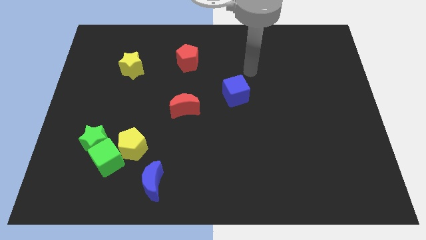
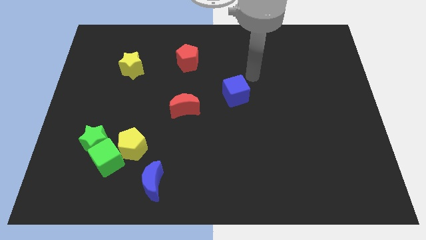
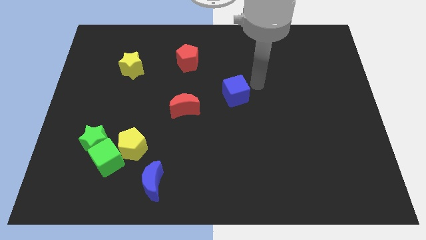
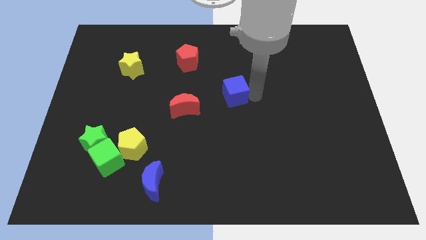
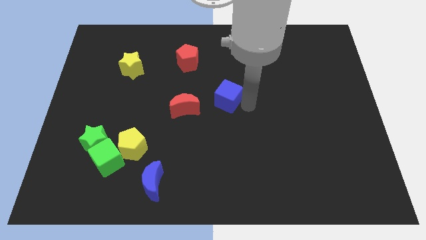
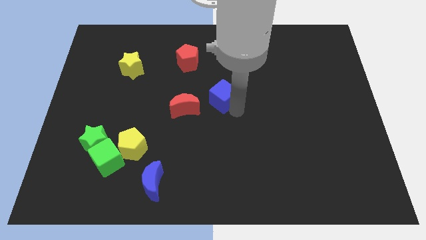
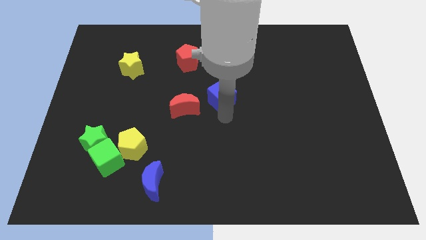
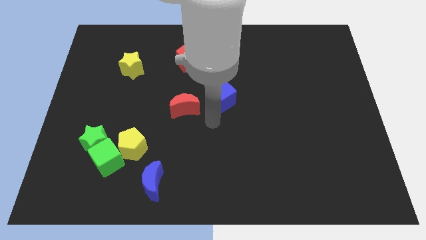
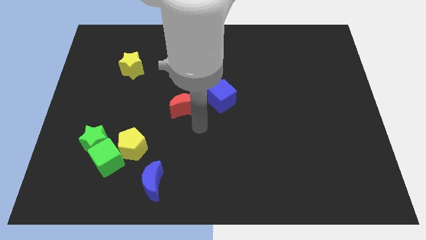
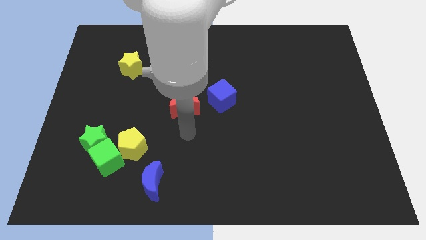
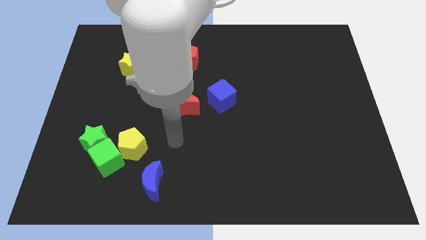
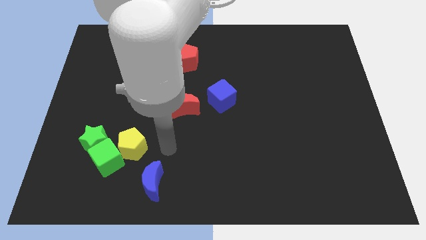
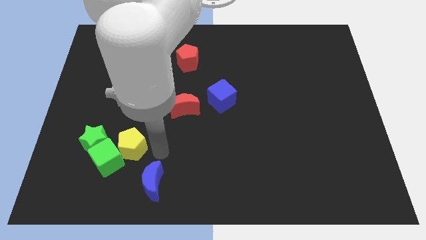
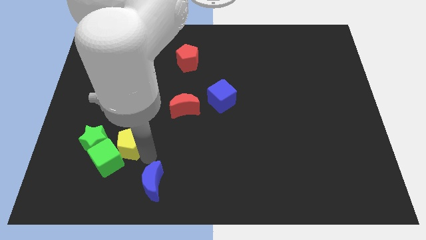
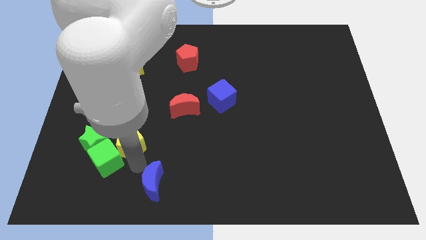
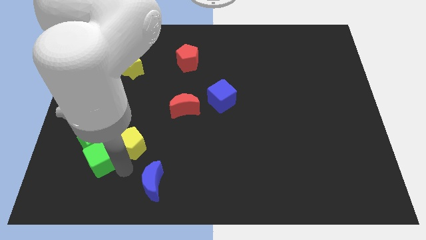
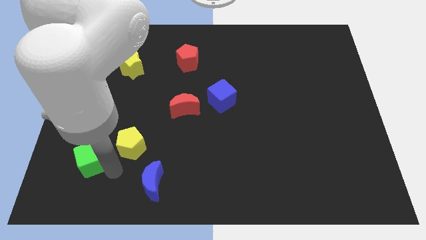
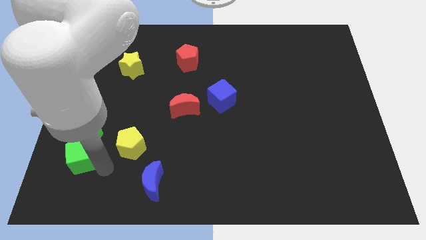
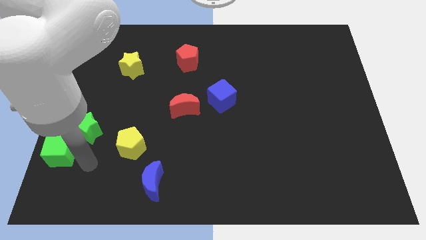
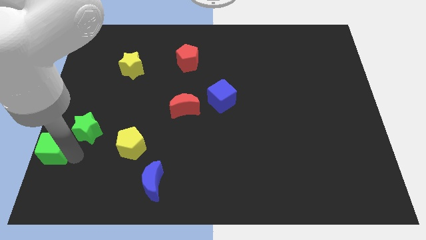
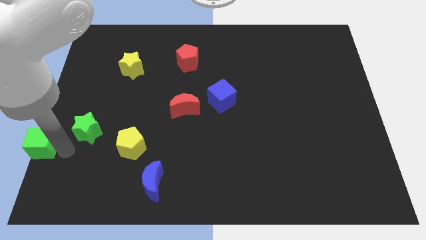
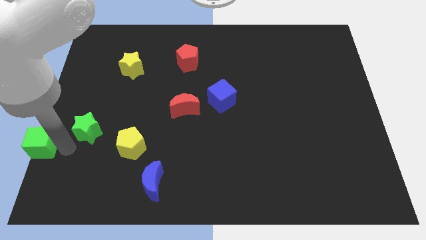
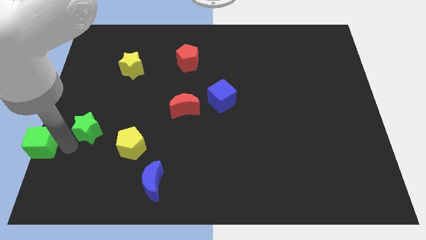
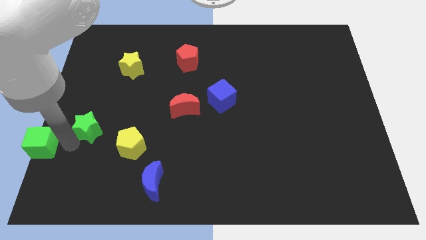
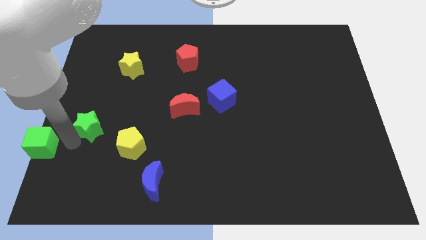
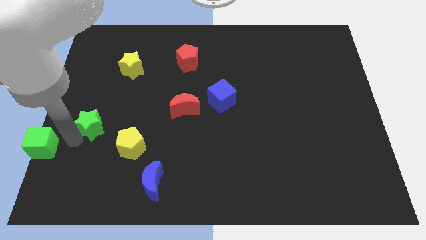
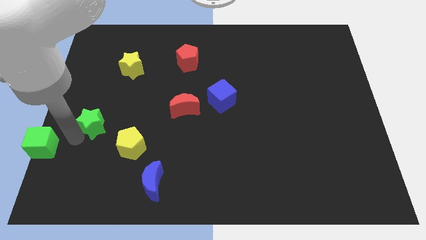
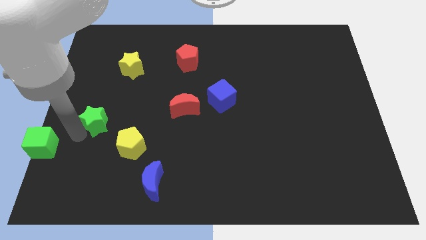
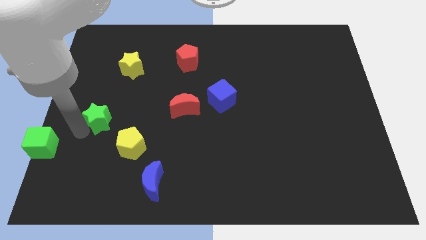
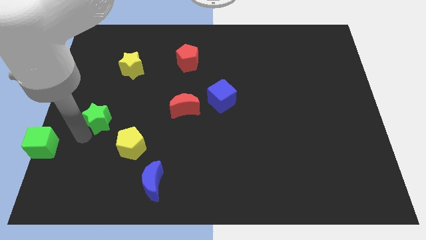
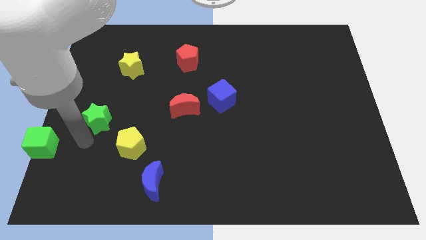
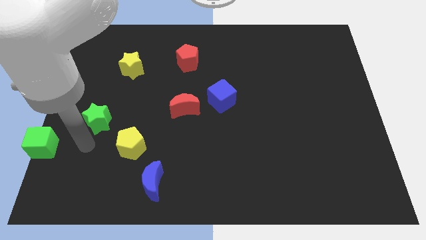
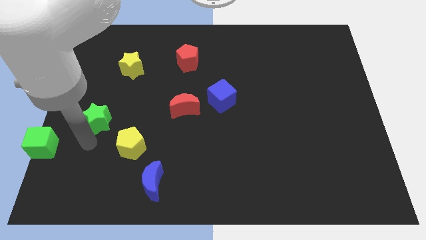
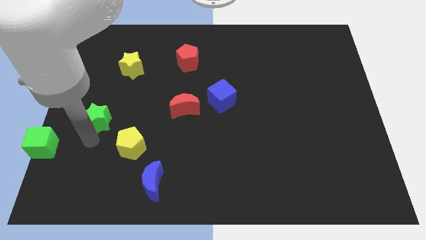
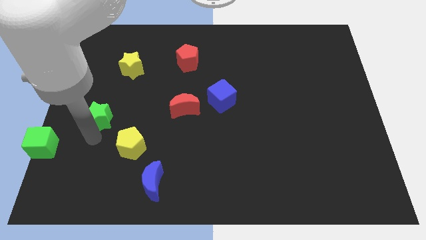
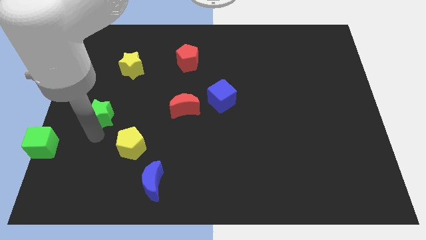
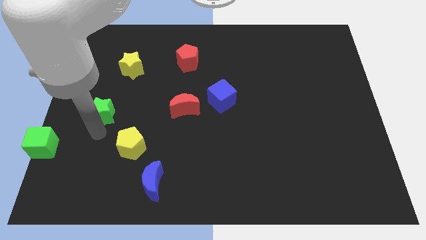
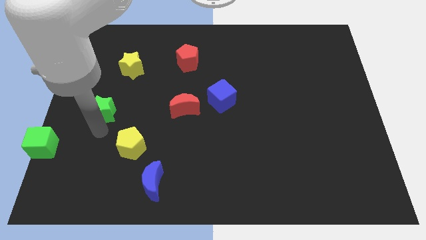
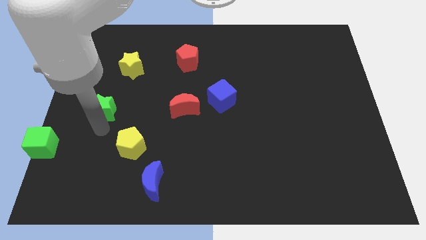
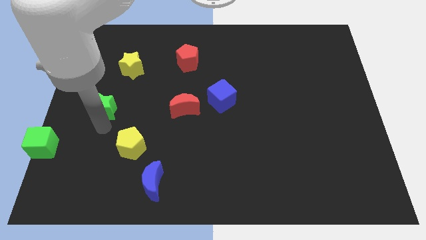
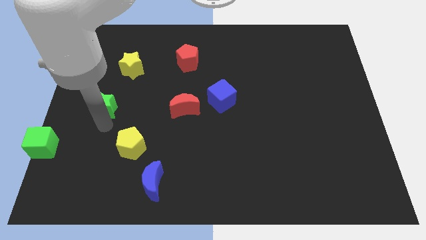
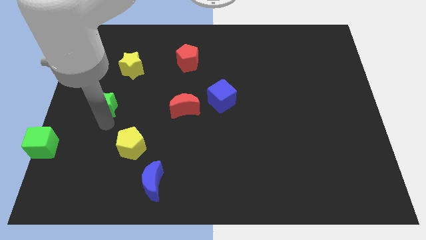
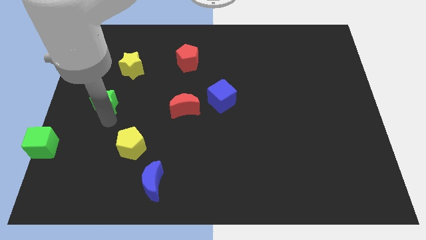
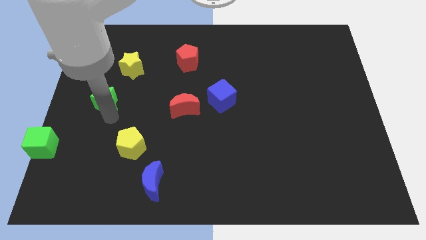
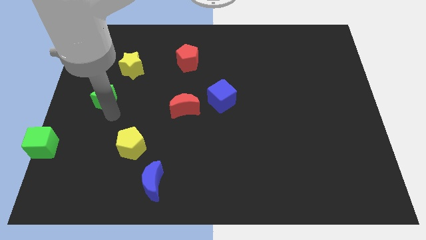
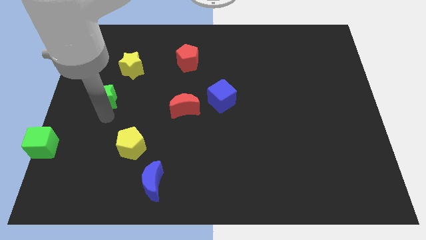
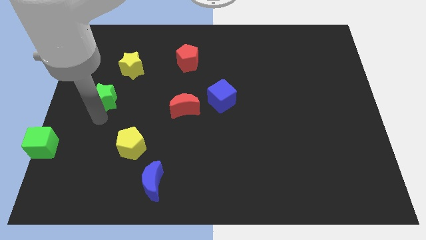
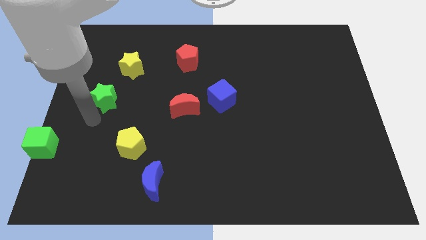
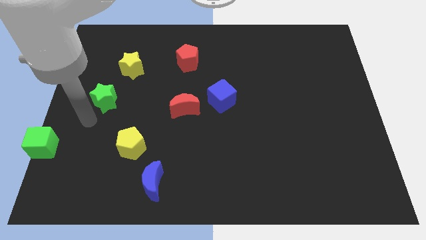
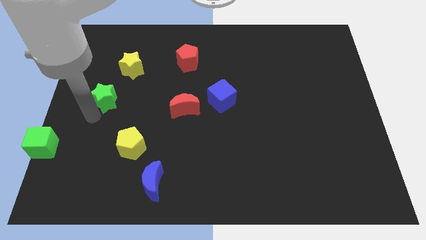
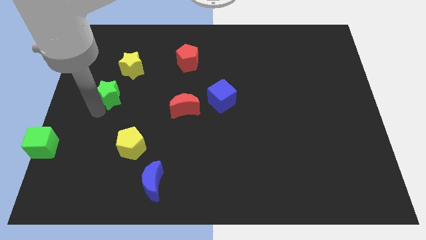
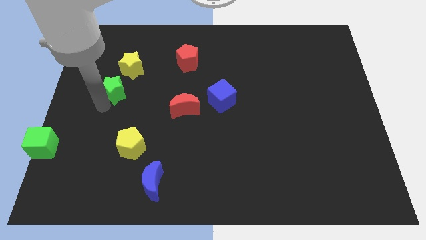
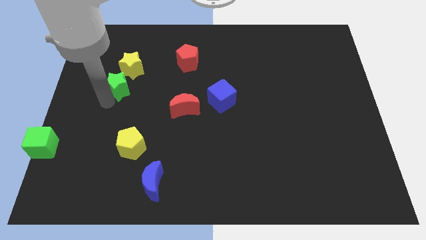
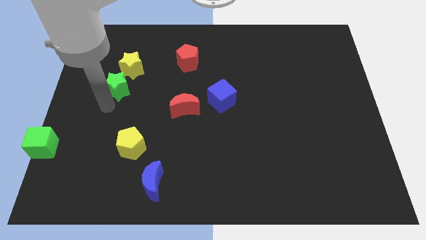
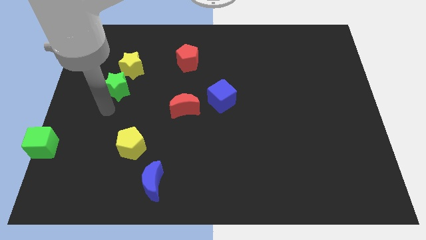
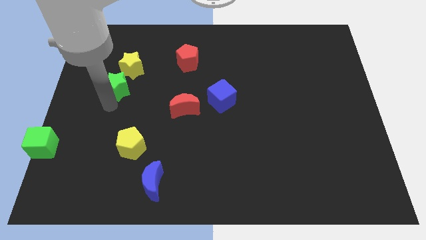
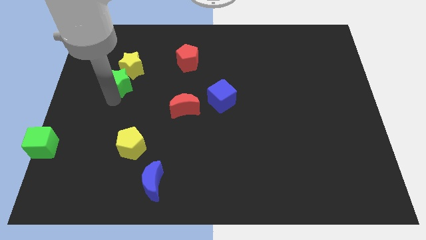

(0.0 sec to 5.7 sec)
put the green star next to the yellow star

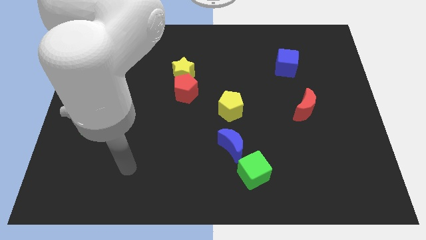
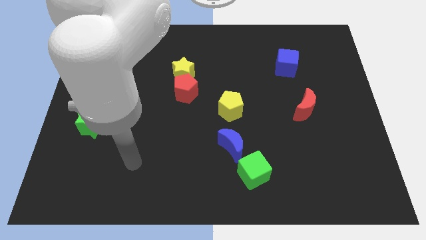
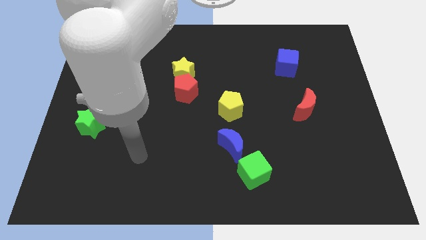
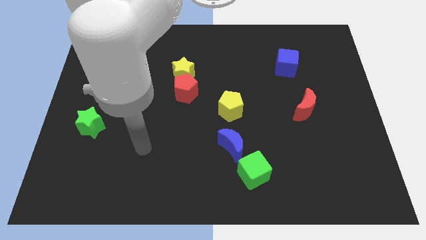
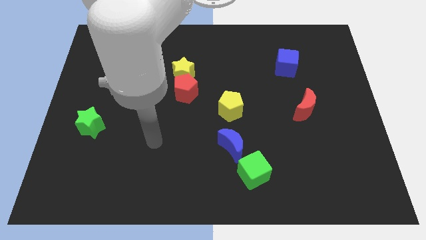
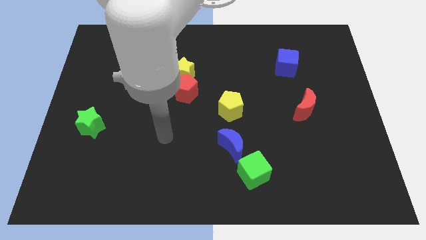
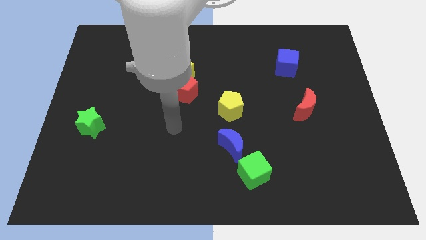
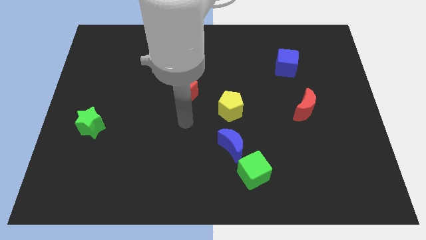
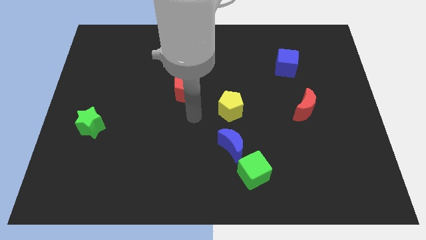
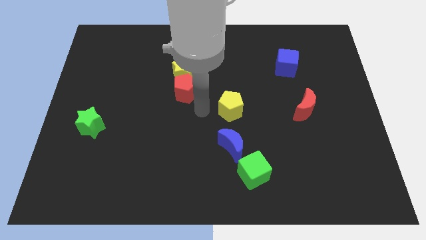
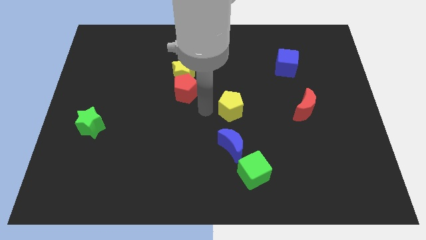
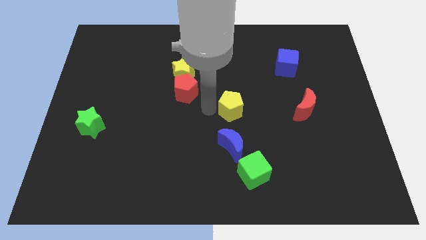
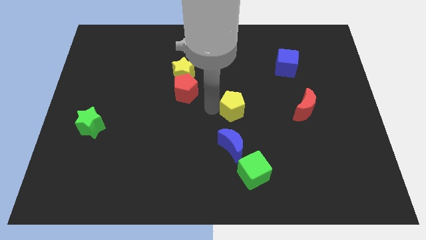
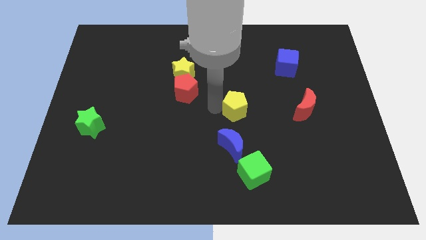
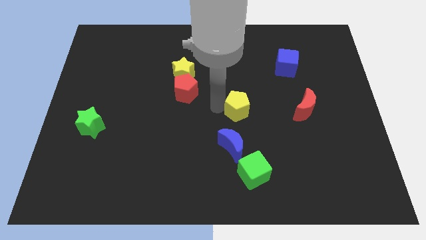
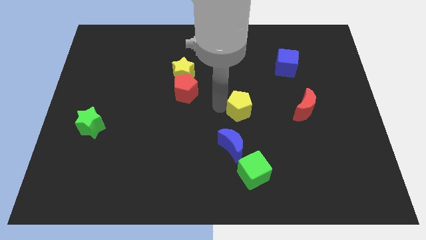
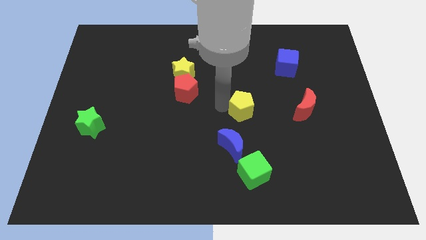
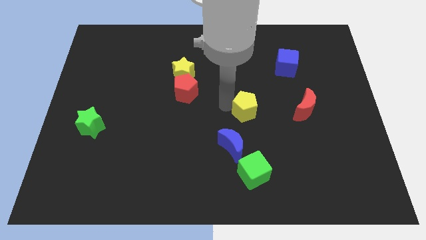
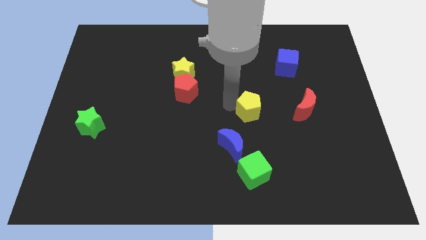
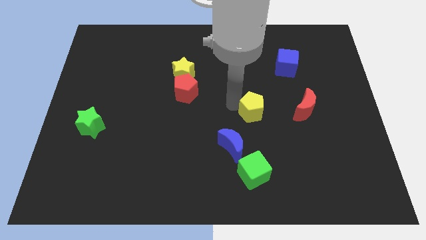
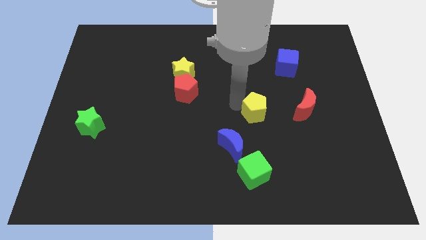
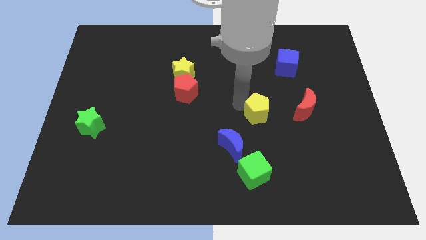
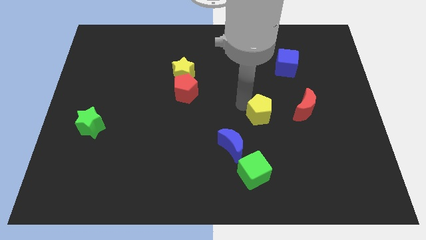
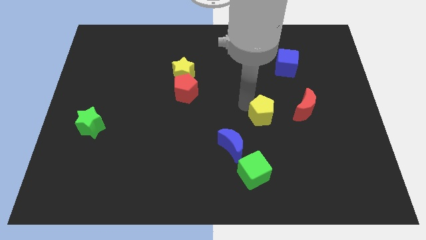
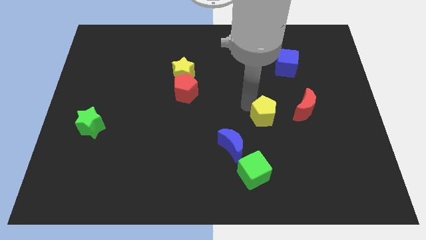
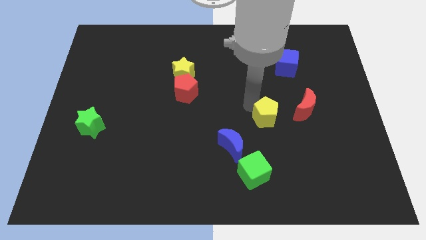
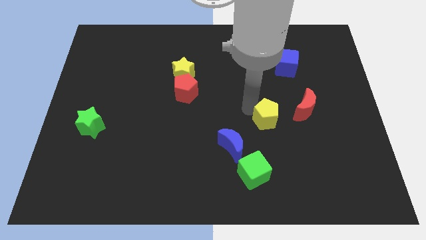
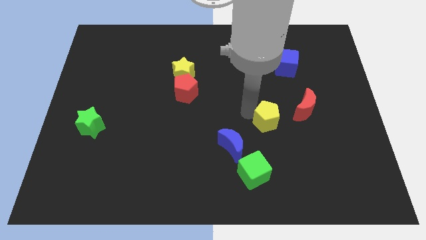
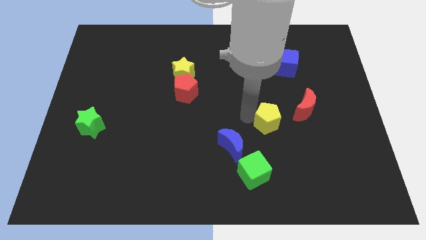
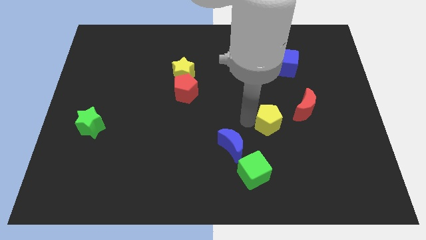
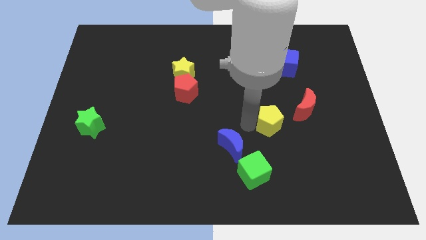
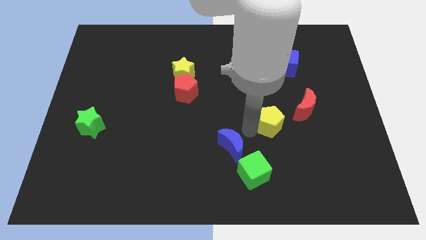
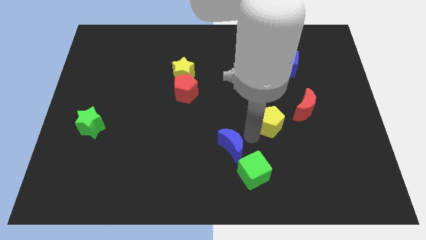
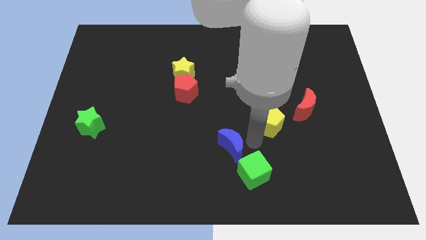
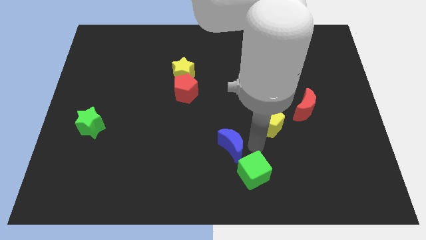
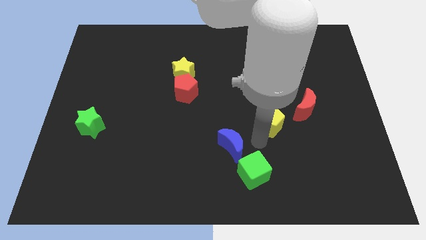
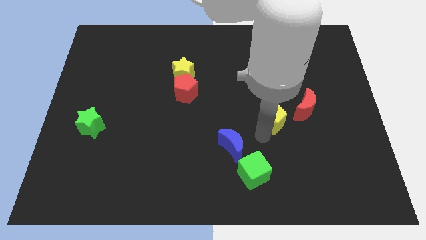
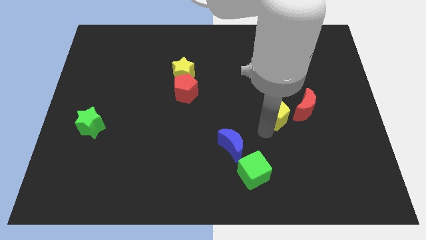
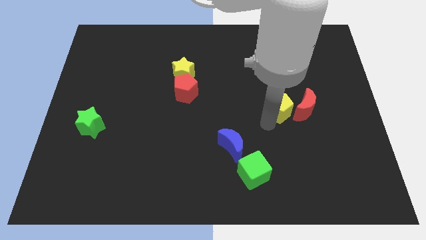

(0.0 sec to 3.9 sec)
put the yellow pentagon towards the red moon
